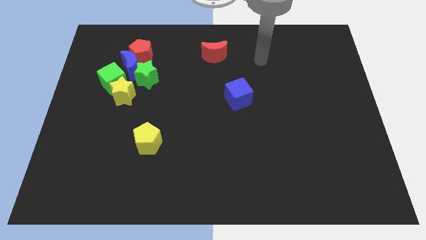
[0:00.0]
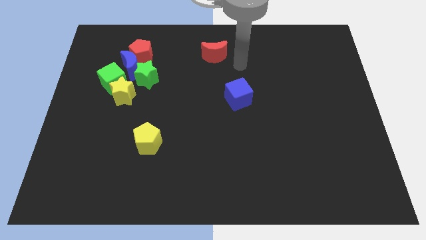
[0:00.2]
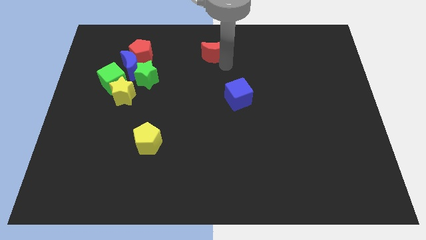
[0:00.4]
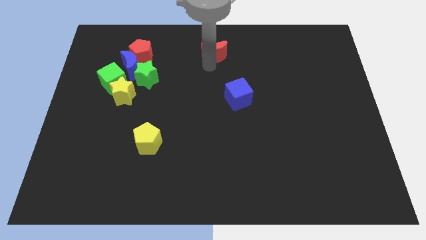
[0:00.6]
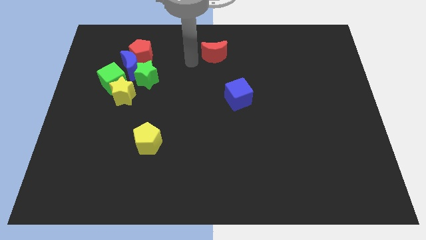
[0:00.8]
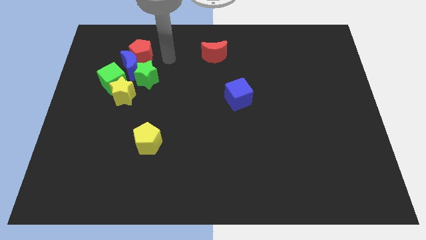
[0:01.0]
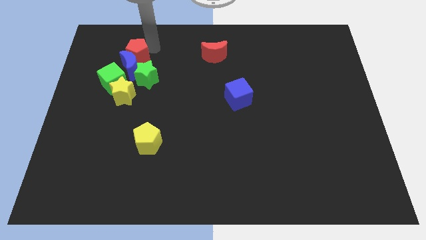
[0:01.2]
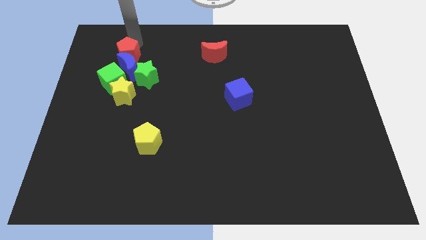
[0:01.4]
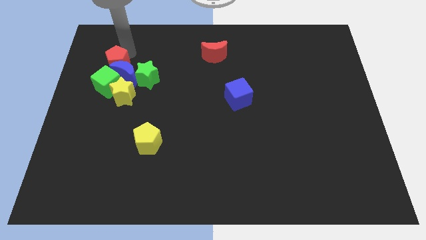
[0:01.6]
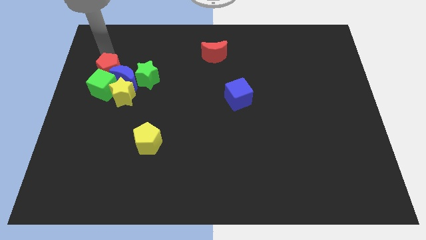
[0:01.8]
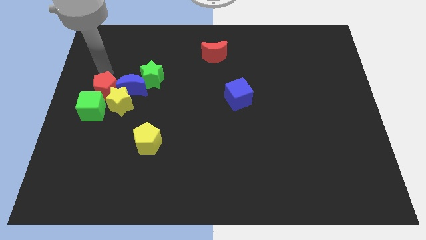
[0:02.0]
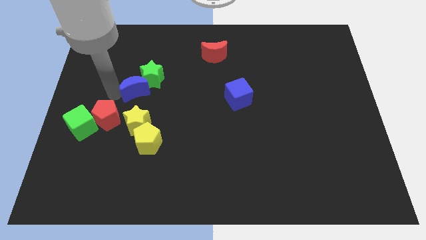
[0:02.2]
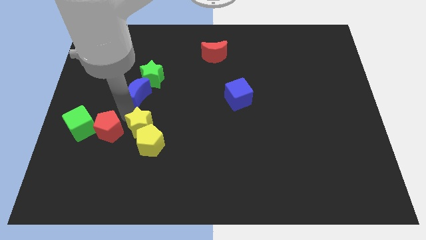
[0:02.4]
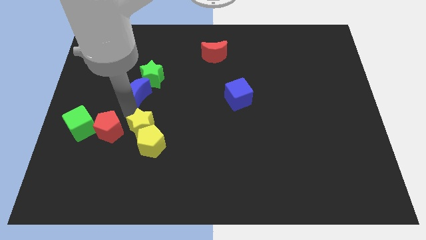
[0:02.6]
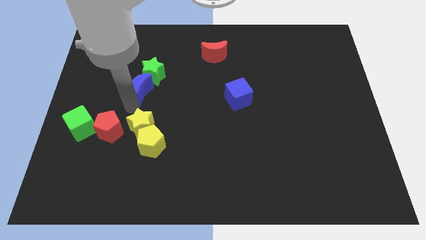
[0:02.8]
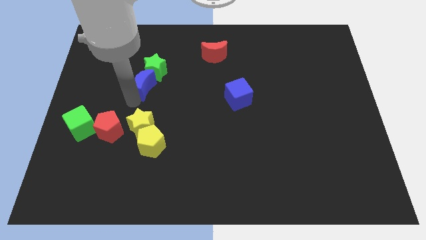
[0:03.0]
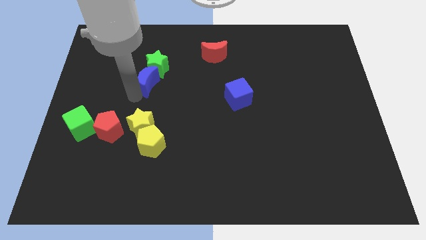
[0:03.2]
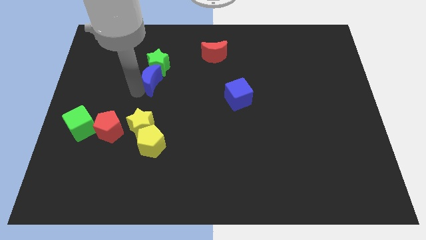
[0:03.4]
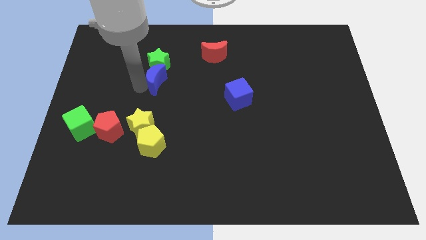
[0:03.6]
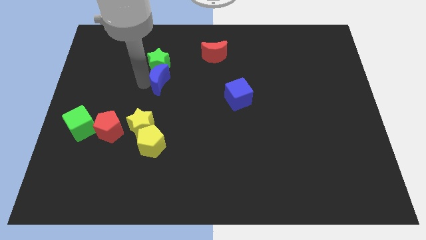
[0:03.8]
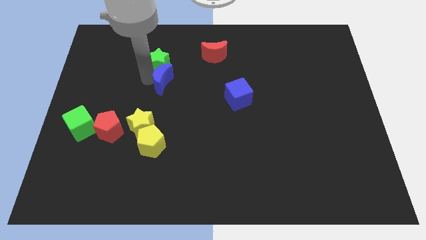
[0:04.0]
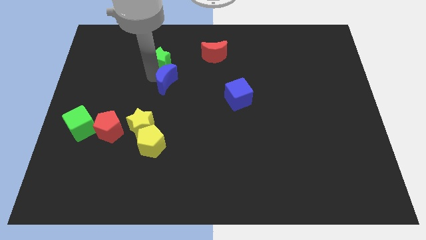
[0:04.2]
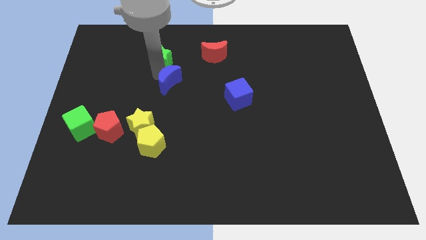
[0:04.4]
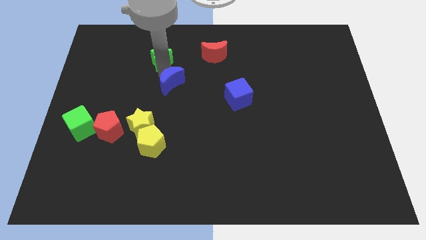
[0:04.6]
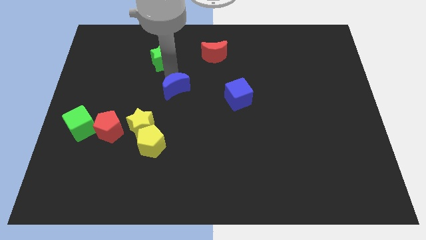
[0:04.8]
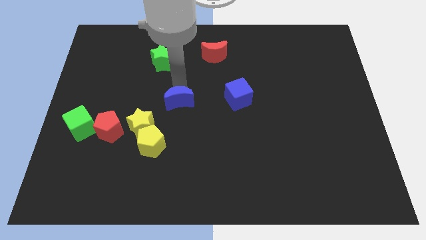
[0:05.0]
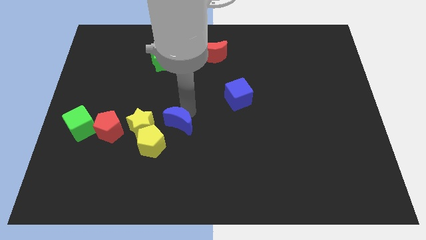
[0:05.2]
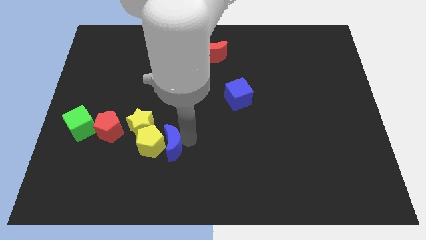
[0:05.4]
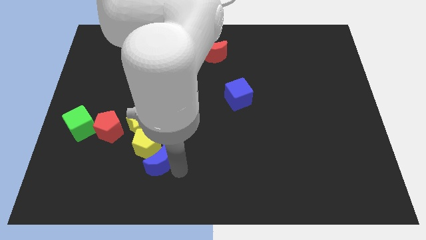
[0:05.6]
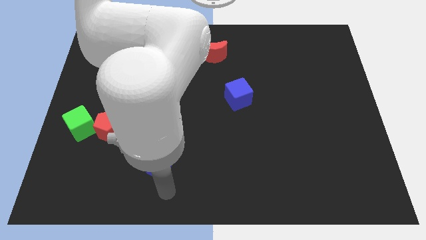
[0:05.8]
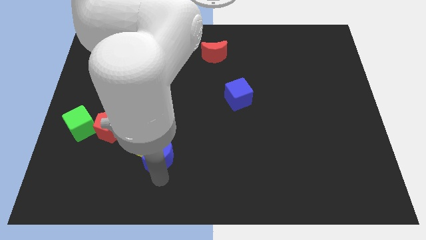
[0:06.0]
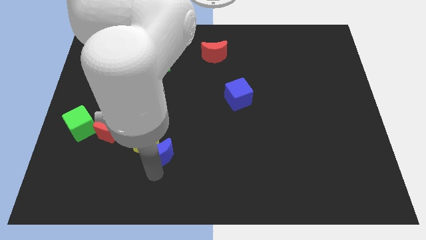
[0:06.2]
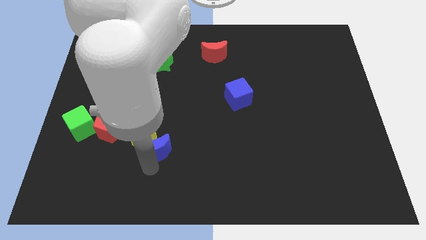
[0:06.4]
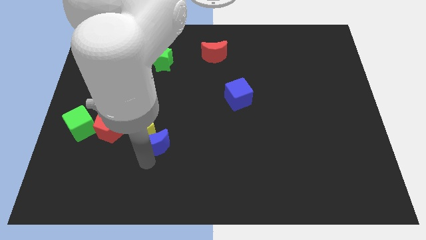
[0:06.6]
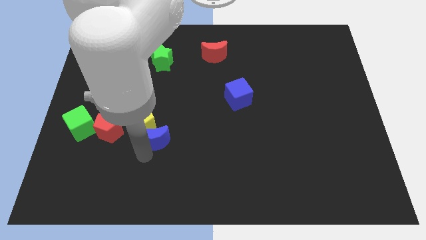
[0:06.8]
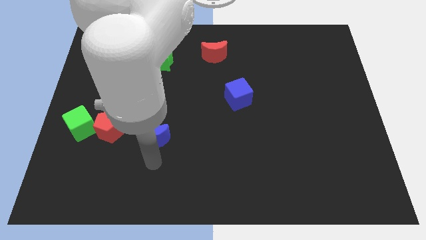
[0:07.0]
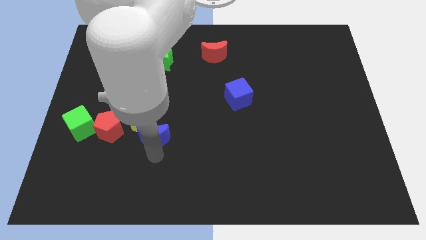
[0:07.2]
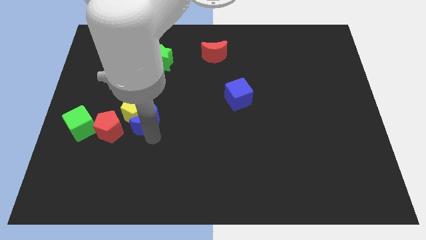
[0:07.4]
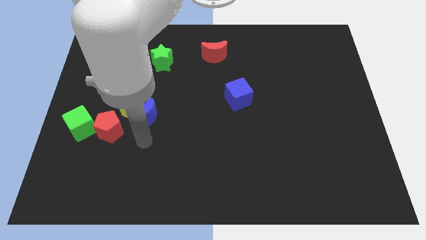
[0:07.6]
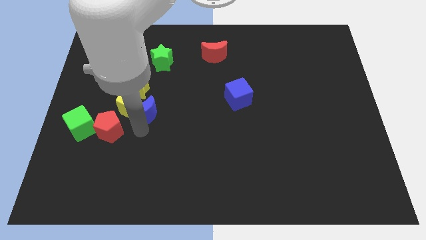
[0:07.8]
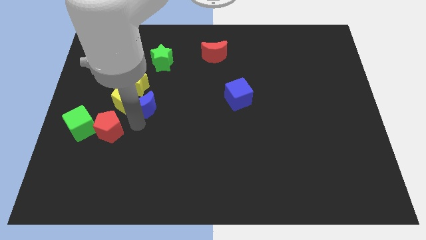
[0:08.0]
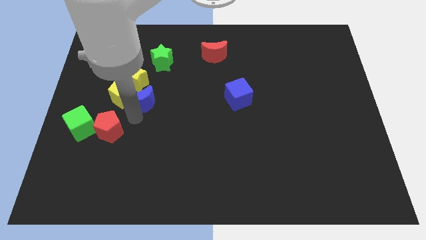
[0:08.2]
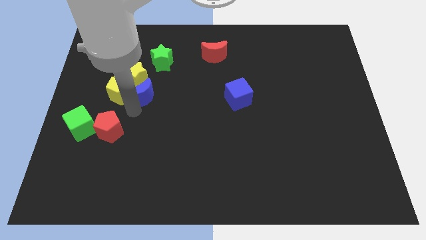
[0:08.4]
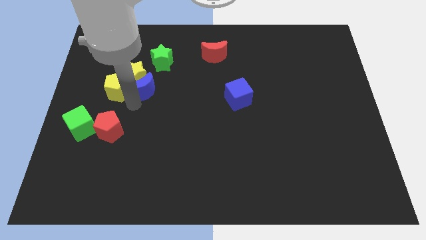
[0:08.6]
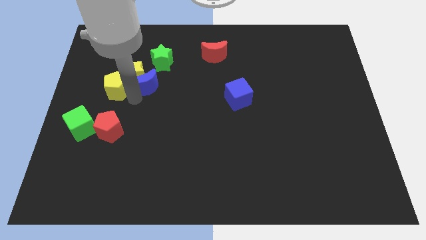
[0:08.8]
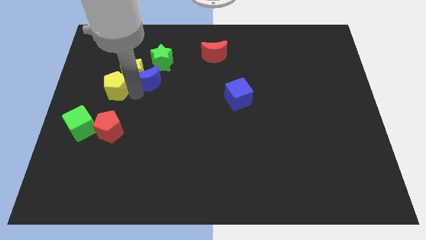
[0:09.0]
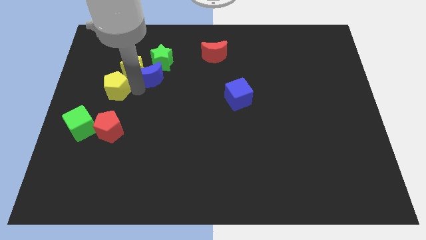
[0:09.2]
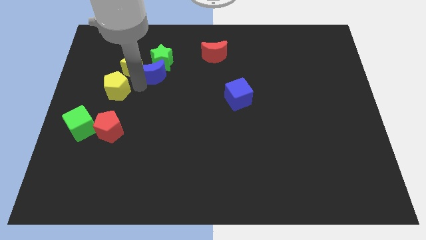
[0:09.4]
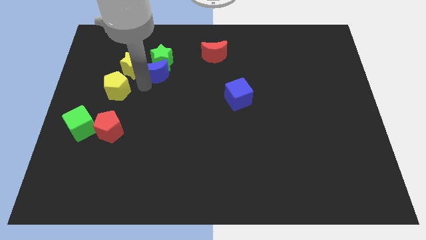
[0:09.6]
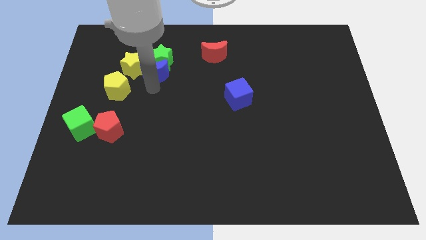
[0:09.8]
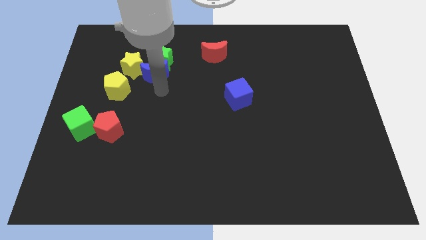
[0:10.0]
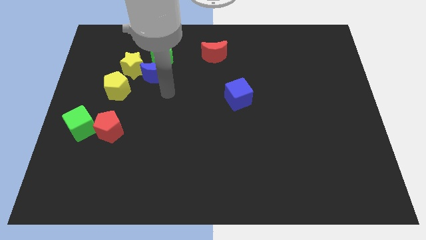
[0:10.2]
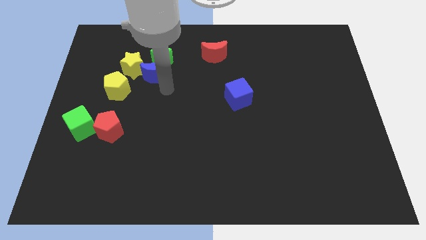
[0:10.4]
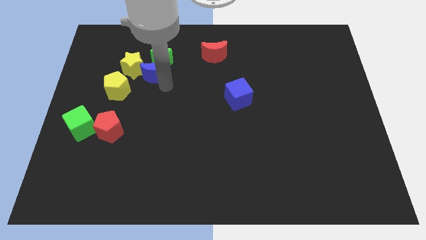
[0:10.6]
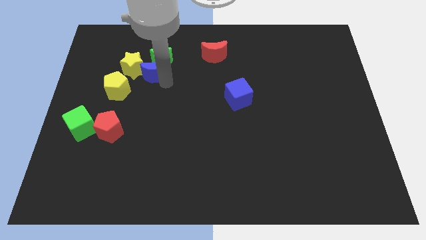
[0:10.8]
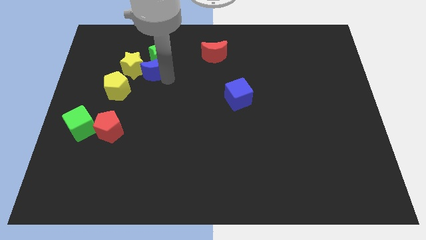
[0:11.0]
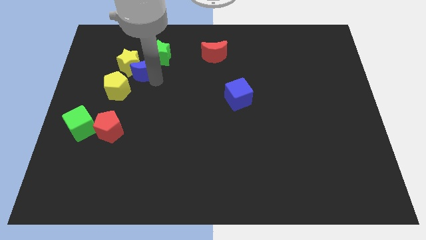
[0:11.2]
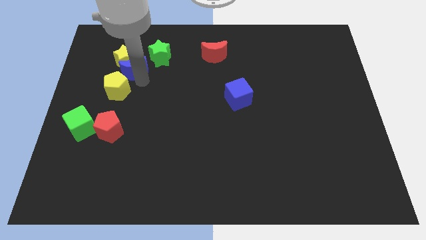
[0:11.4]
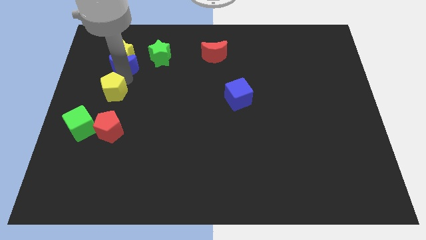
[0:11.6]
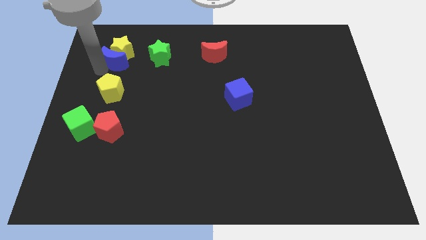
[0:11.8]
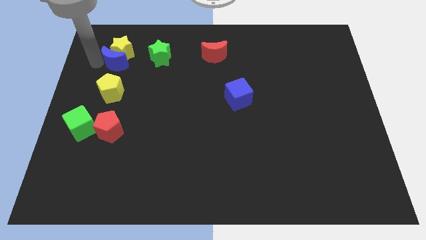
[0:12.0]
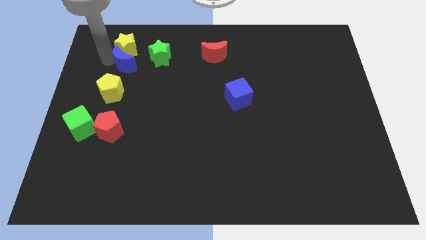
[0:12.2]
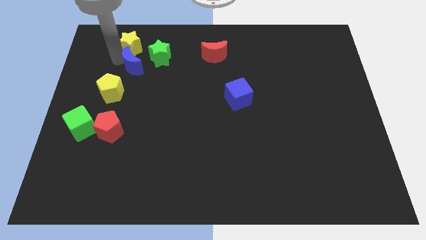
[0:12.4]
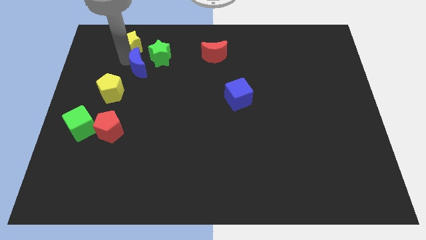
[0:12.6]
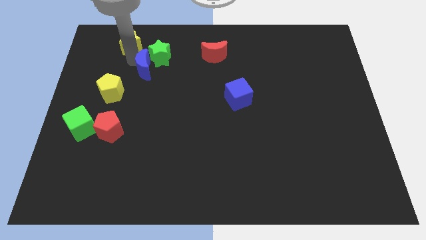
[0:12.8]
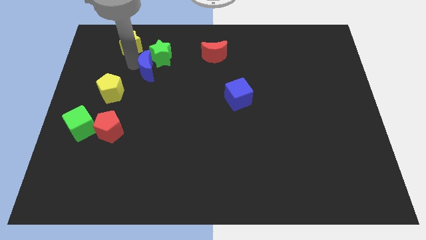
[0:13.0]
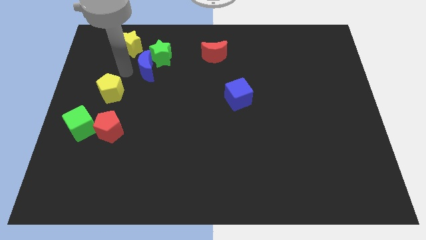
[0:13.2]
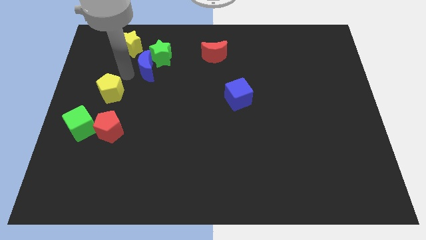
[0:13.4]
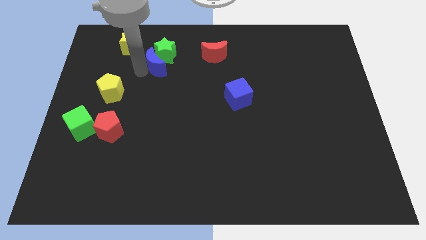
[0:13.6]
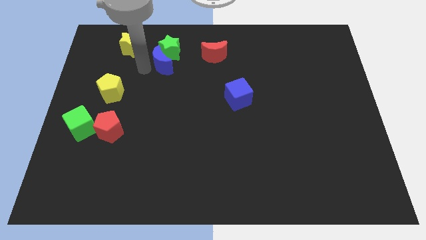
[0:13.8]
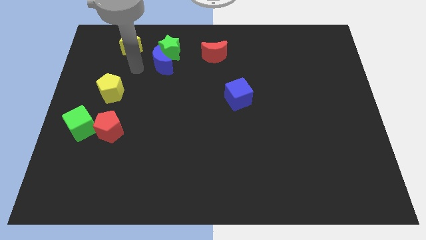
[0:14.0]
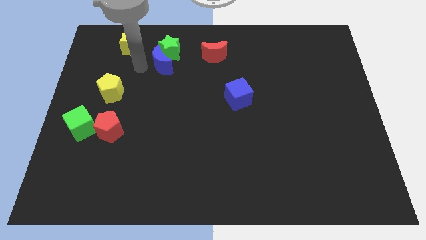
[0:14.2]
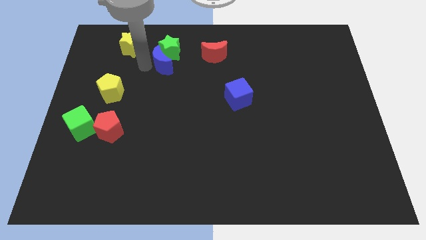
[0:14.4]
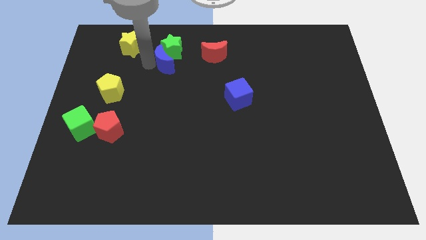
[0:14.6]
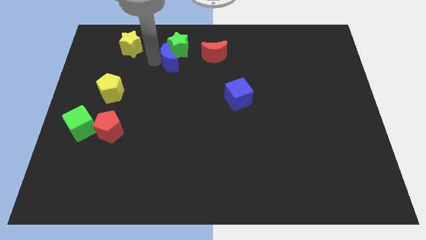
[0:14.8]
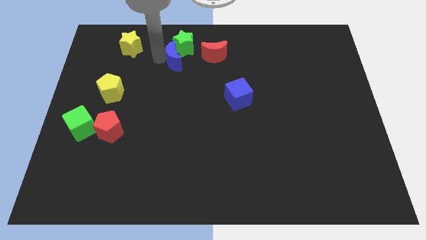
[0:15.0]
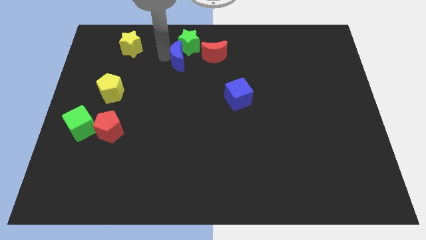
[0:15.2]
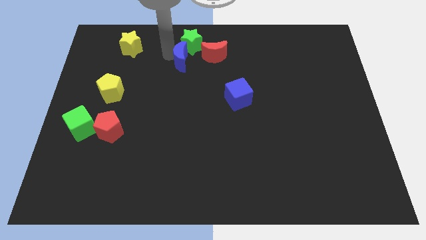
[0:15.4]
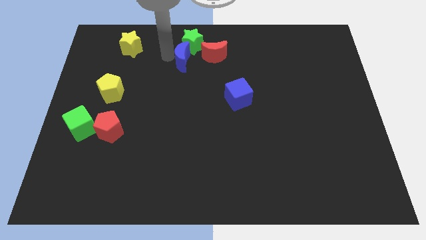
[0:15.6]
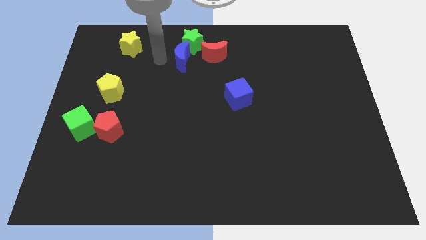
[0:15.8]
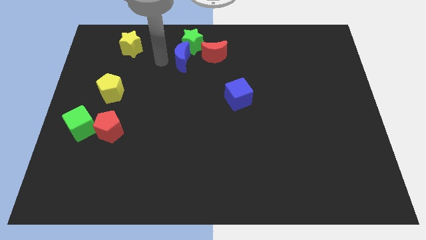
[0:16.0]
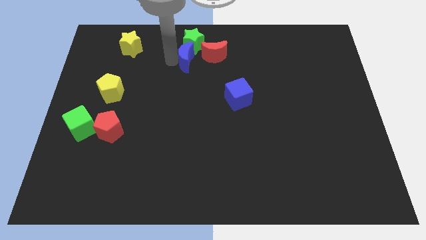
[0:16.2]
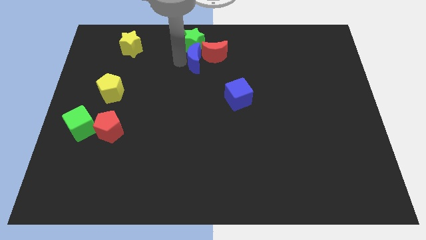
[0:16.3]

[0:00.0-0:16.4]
move the blue moon to the red moon
